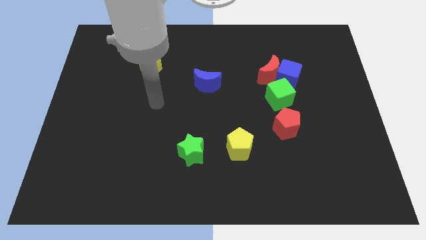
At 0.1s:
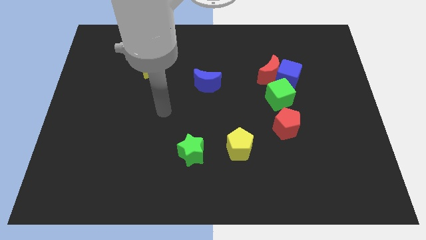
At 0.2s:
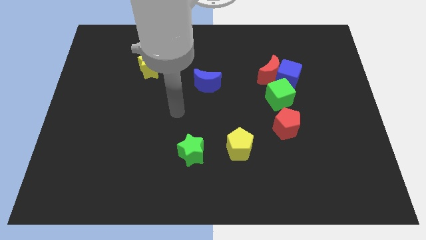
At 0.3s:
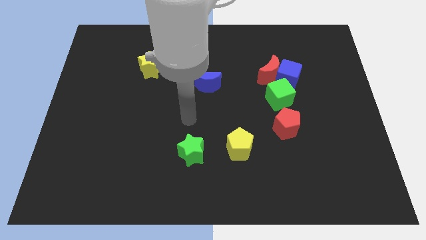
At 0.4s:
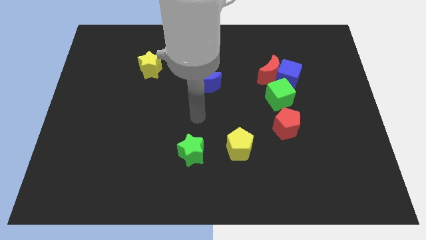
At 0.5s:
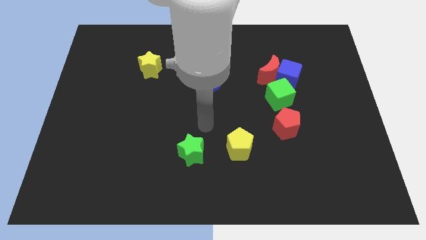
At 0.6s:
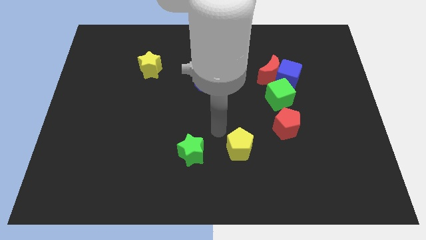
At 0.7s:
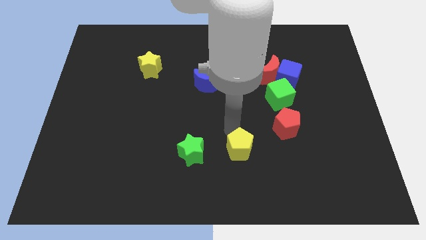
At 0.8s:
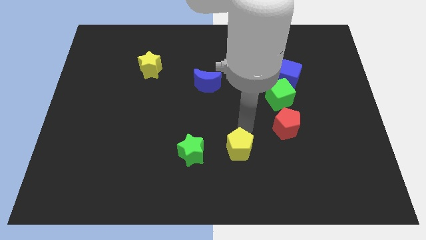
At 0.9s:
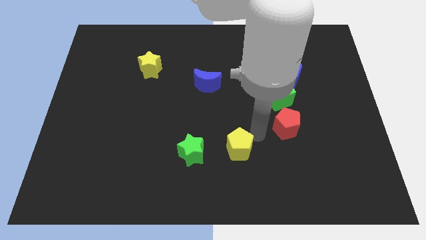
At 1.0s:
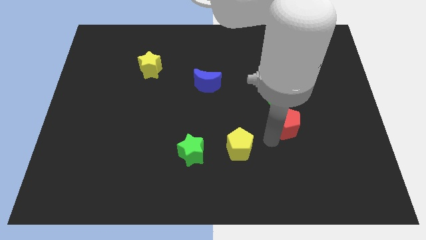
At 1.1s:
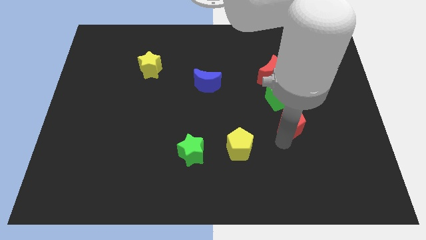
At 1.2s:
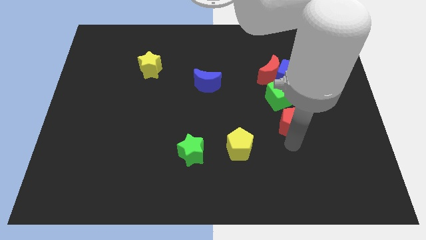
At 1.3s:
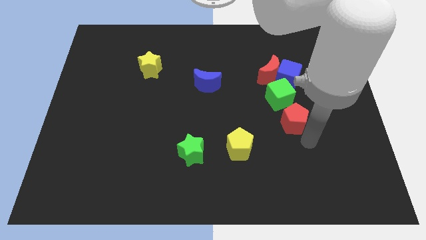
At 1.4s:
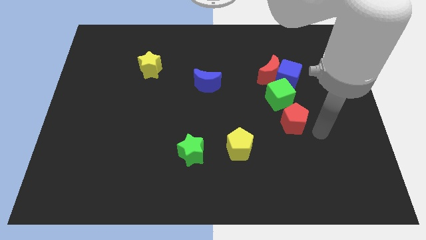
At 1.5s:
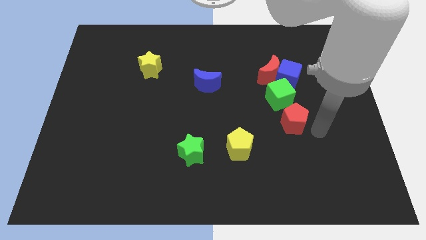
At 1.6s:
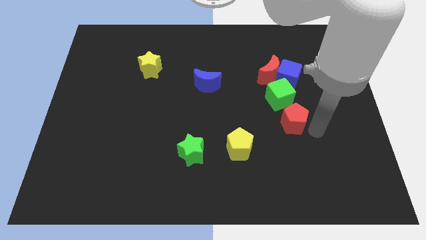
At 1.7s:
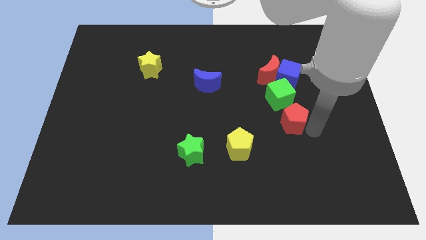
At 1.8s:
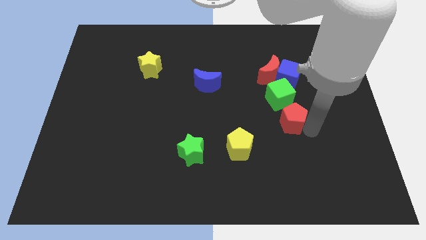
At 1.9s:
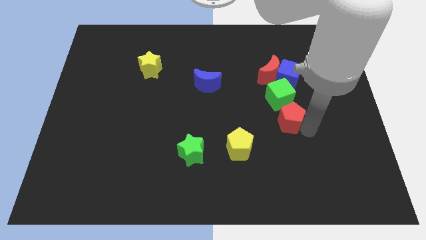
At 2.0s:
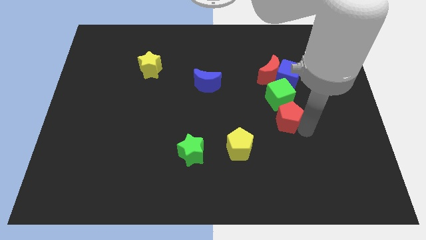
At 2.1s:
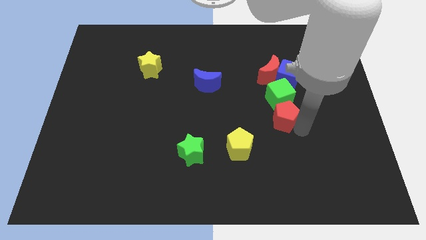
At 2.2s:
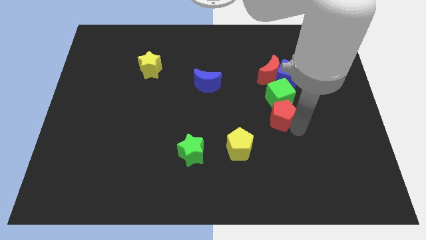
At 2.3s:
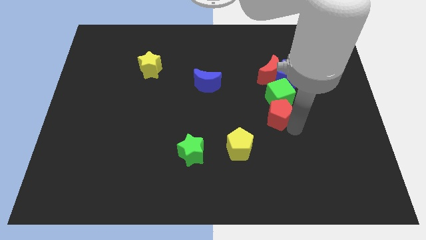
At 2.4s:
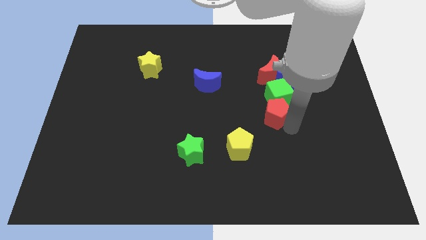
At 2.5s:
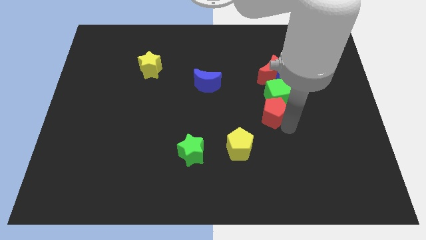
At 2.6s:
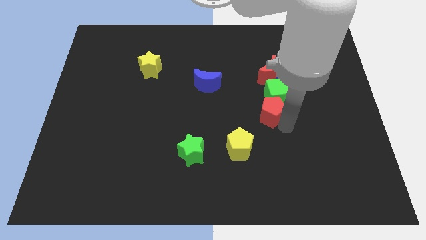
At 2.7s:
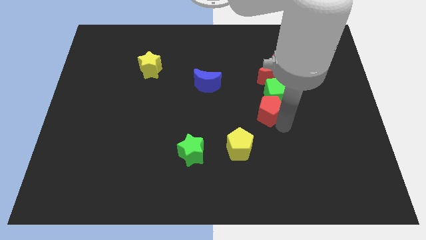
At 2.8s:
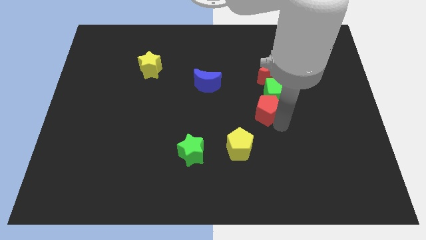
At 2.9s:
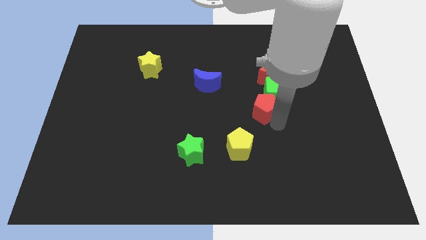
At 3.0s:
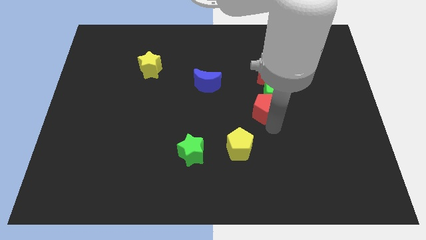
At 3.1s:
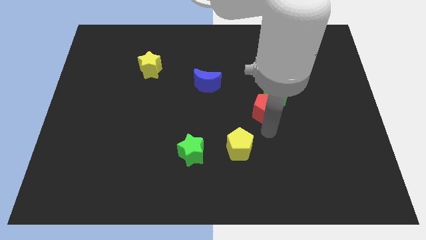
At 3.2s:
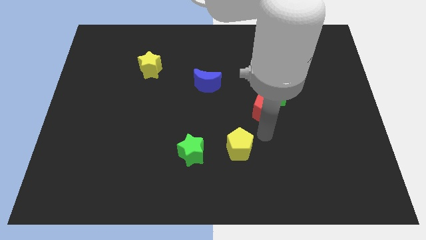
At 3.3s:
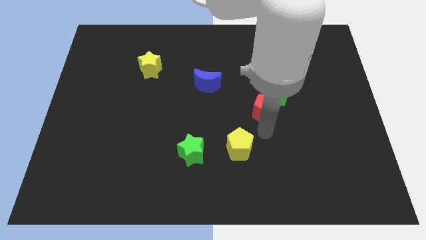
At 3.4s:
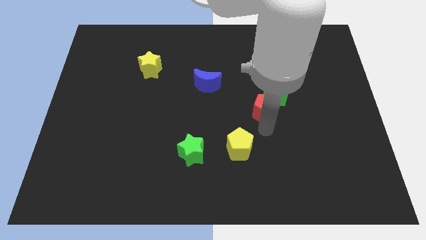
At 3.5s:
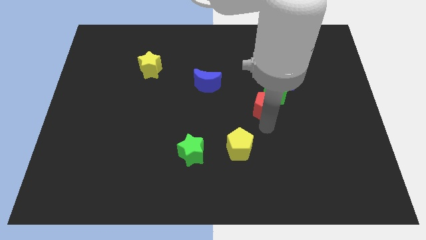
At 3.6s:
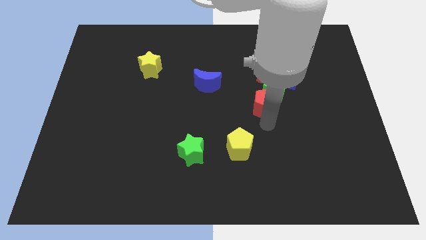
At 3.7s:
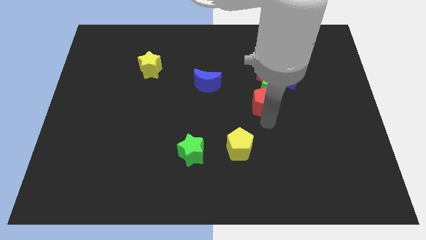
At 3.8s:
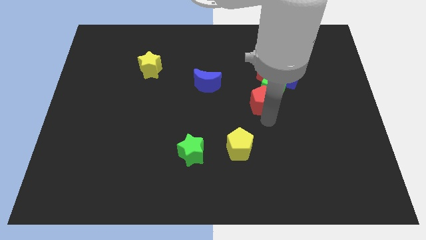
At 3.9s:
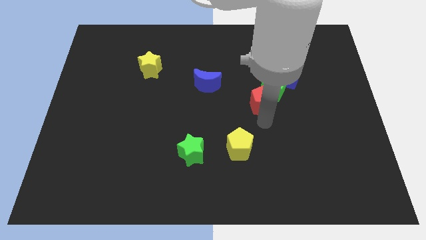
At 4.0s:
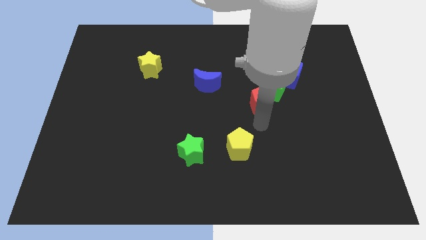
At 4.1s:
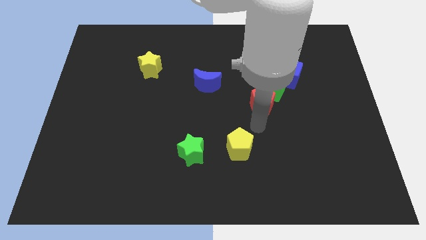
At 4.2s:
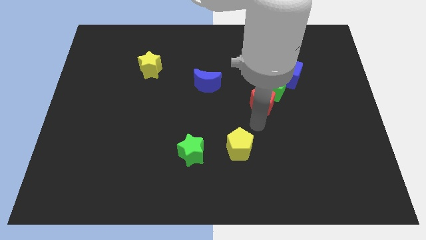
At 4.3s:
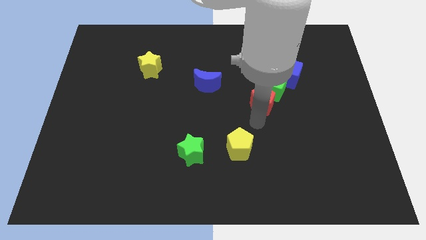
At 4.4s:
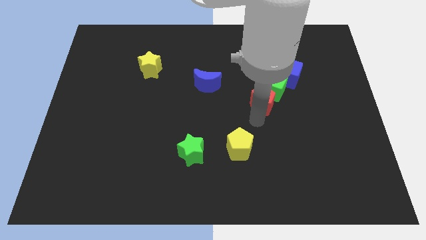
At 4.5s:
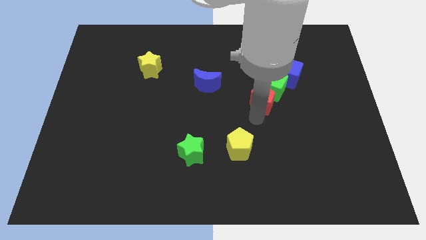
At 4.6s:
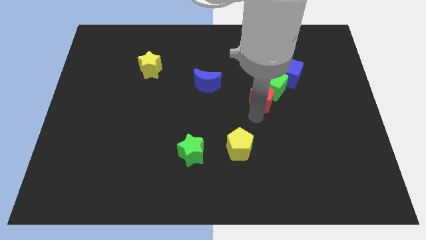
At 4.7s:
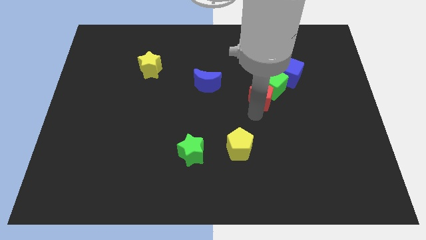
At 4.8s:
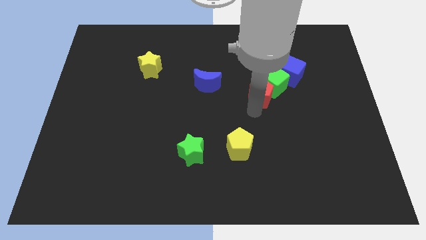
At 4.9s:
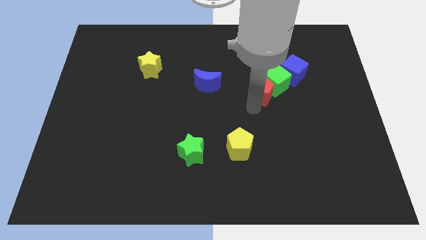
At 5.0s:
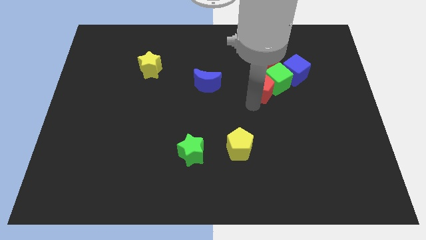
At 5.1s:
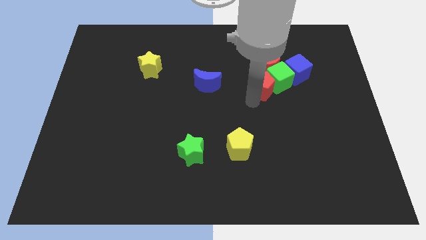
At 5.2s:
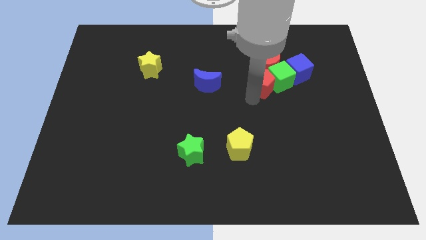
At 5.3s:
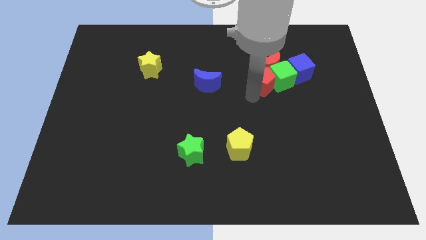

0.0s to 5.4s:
slide the red pentagon close to the red moon

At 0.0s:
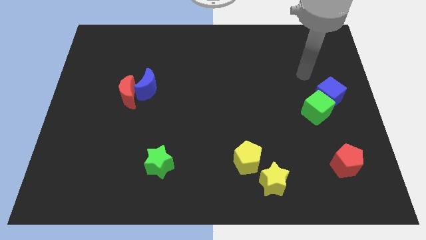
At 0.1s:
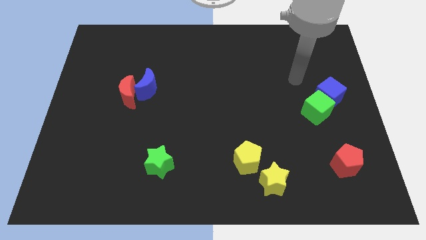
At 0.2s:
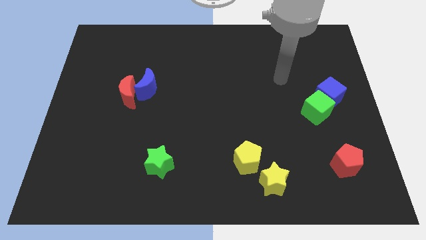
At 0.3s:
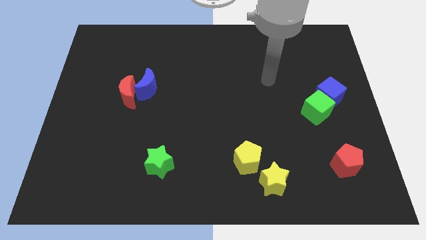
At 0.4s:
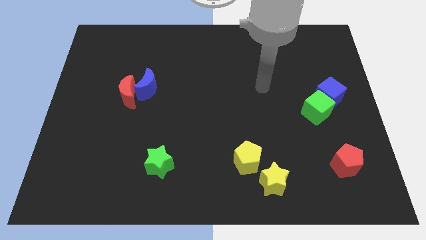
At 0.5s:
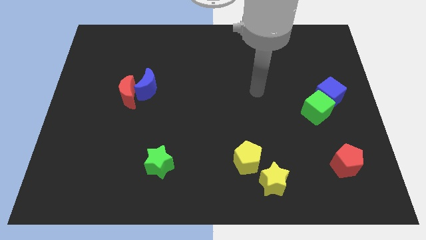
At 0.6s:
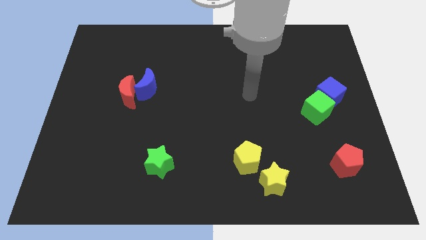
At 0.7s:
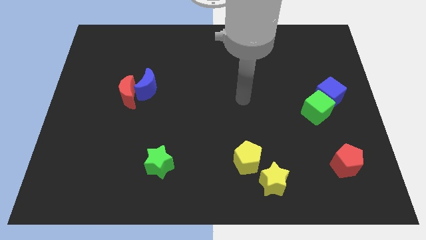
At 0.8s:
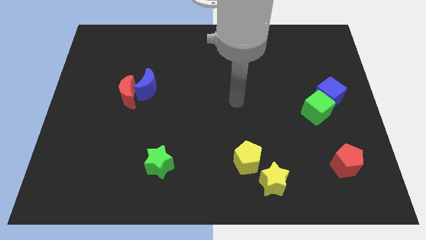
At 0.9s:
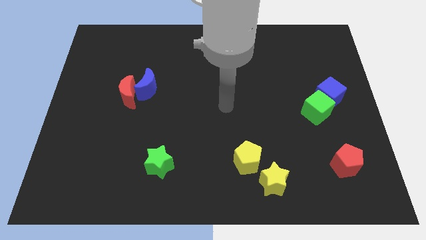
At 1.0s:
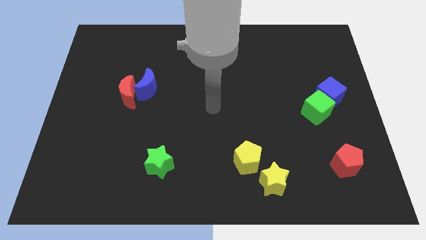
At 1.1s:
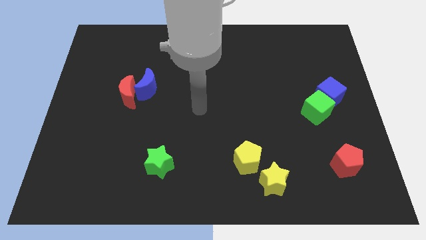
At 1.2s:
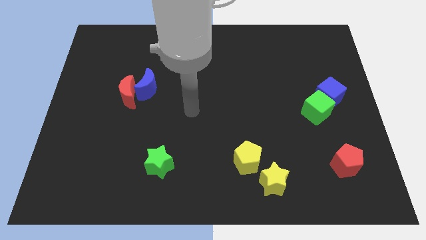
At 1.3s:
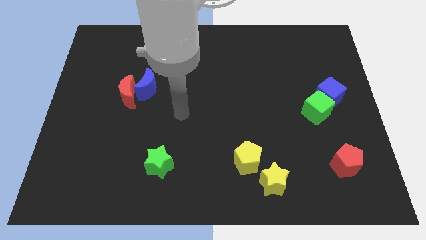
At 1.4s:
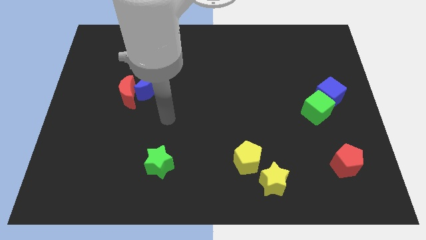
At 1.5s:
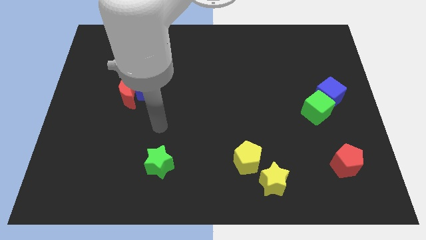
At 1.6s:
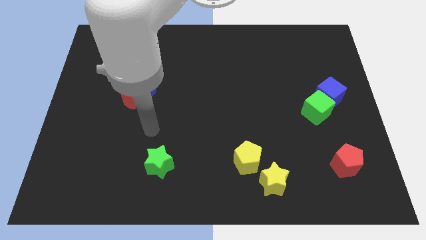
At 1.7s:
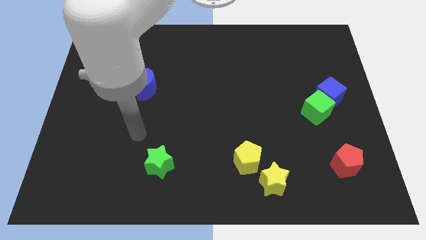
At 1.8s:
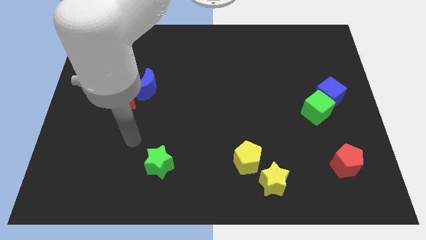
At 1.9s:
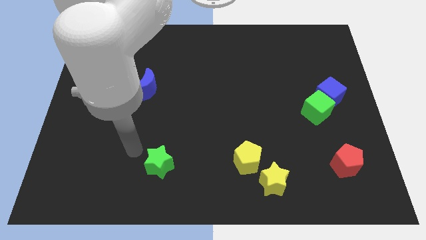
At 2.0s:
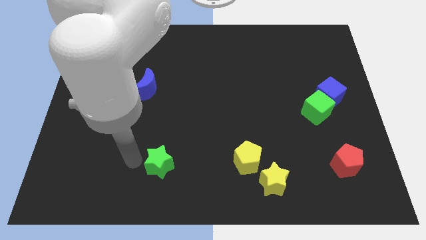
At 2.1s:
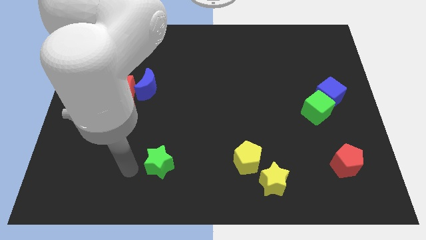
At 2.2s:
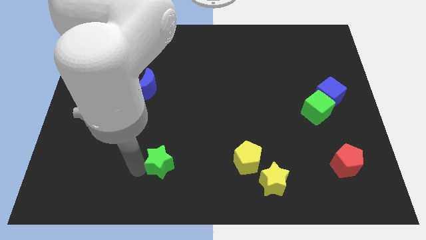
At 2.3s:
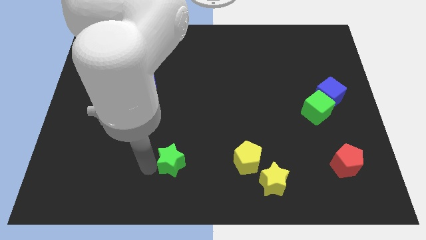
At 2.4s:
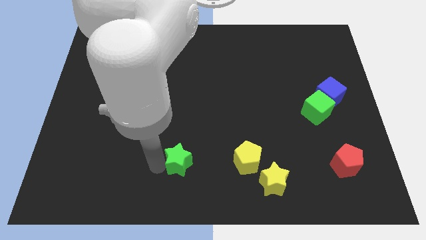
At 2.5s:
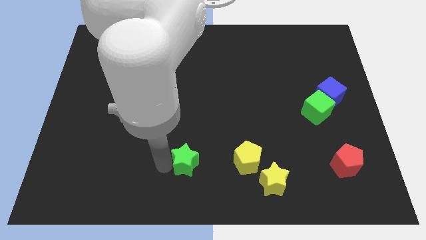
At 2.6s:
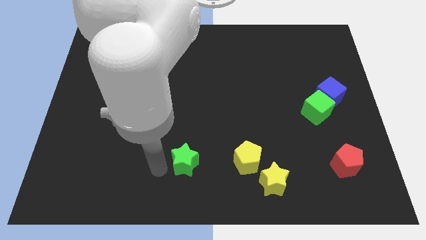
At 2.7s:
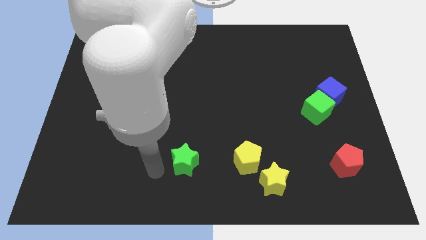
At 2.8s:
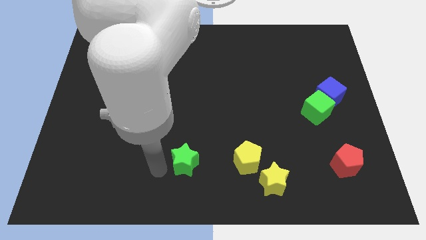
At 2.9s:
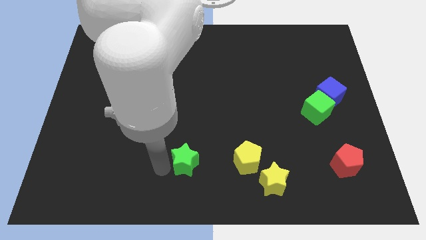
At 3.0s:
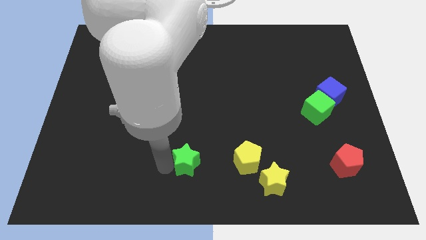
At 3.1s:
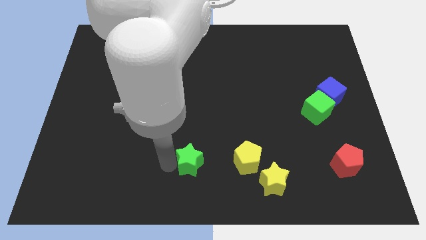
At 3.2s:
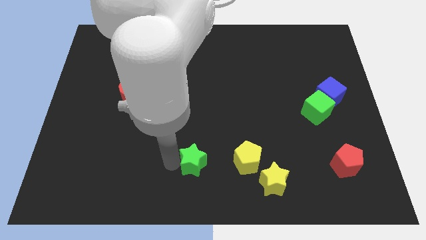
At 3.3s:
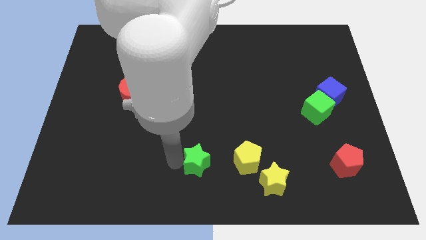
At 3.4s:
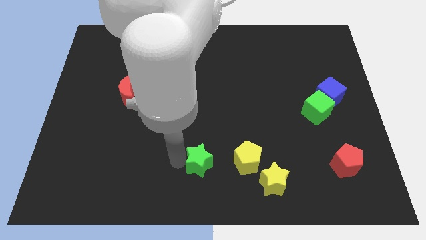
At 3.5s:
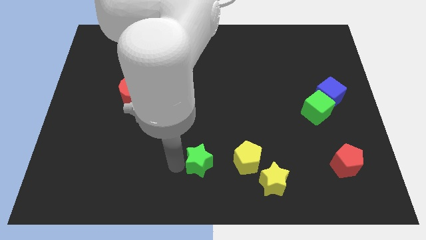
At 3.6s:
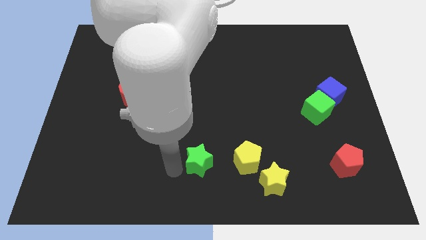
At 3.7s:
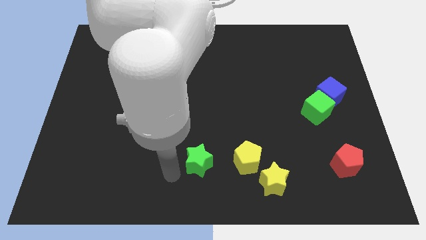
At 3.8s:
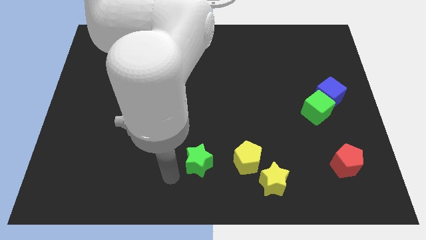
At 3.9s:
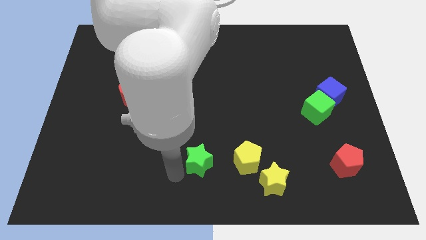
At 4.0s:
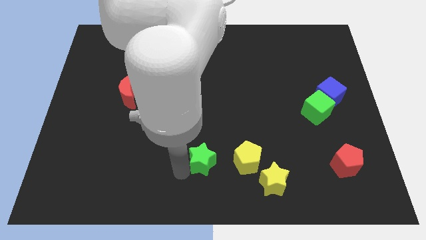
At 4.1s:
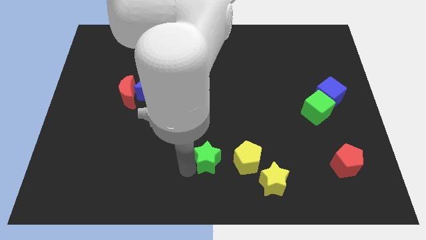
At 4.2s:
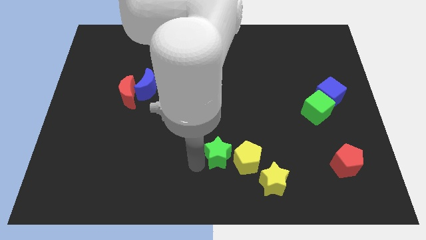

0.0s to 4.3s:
push the green star to the yellow pentagon
